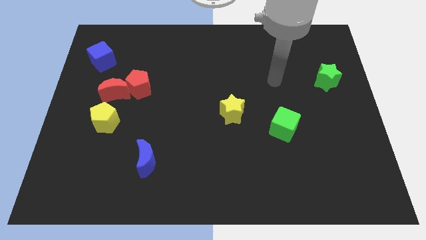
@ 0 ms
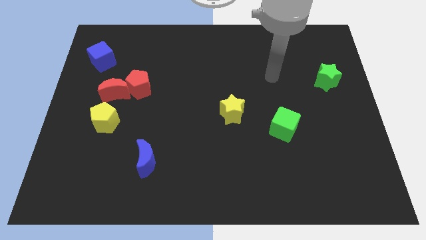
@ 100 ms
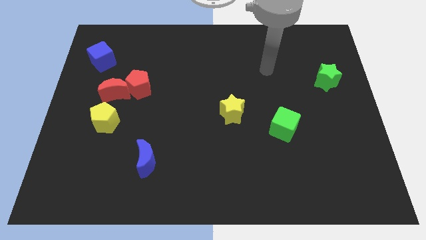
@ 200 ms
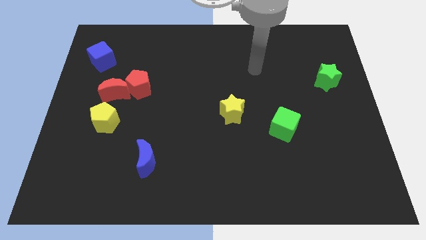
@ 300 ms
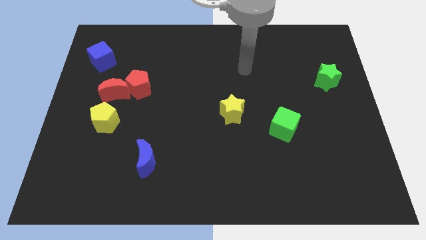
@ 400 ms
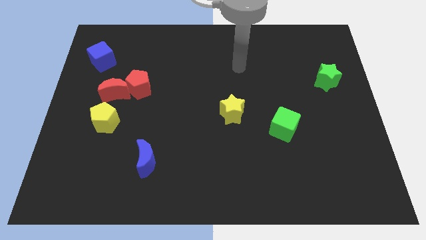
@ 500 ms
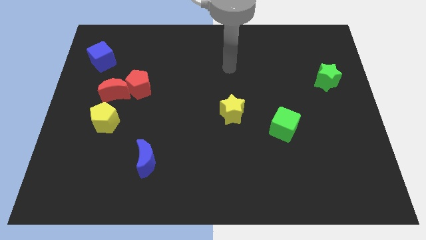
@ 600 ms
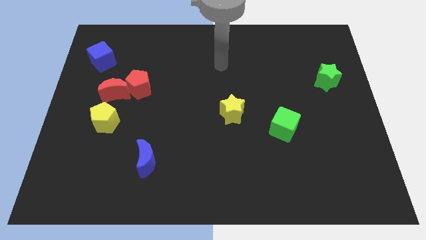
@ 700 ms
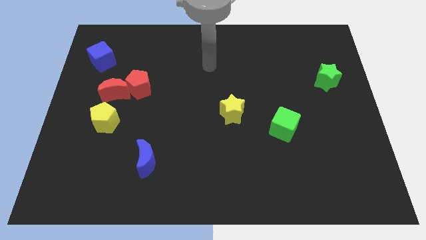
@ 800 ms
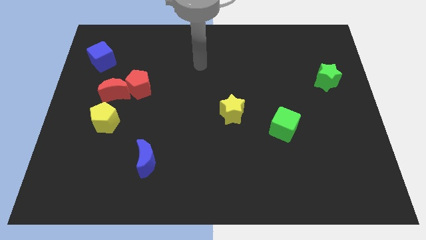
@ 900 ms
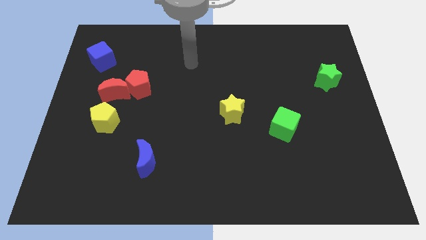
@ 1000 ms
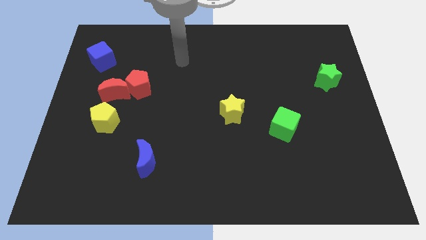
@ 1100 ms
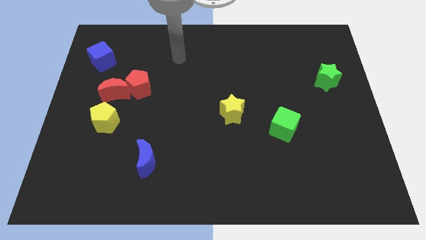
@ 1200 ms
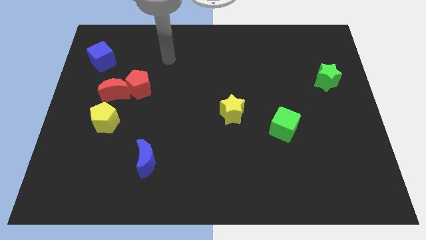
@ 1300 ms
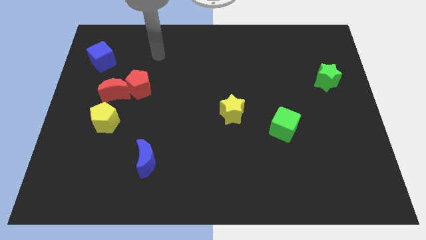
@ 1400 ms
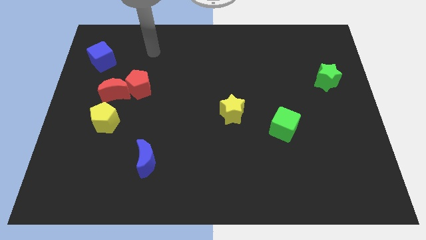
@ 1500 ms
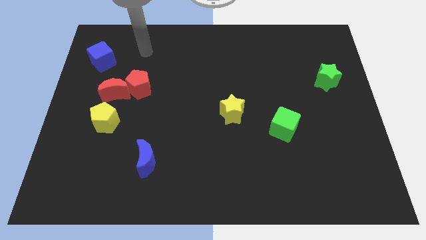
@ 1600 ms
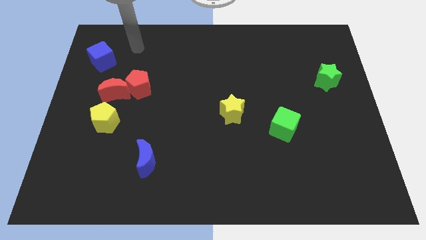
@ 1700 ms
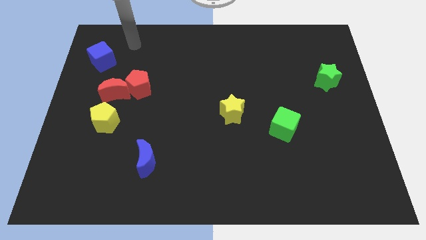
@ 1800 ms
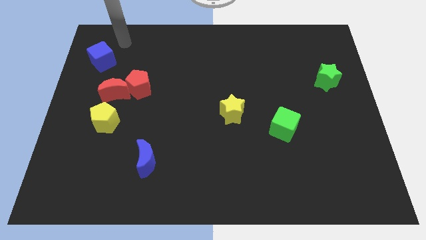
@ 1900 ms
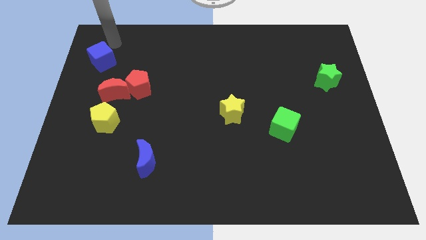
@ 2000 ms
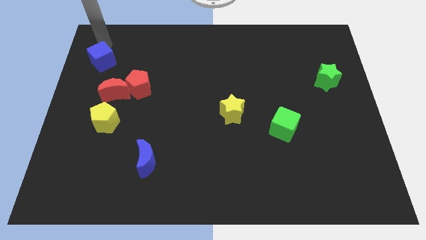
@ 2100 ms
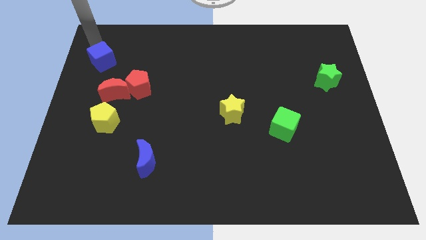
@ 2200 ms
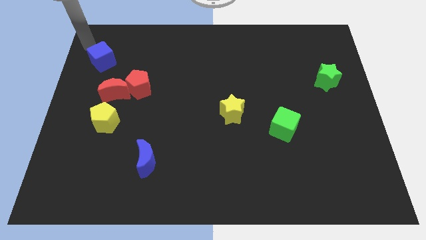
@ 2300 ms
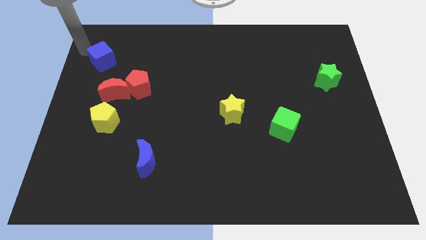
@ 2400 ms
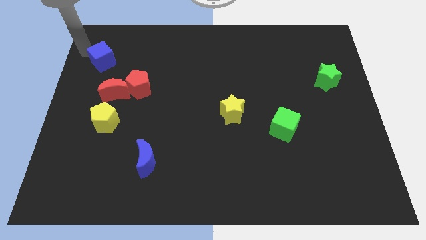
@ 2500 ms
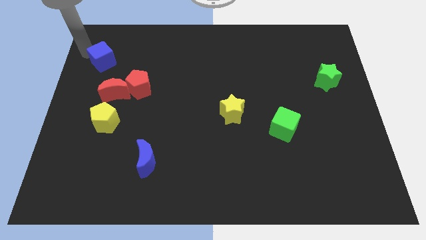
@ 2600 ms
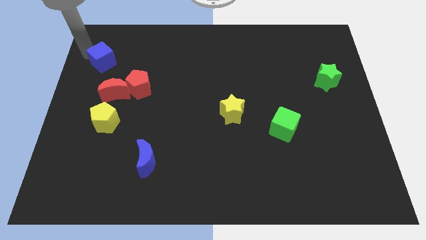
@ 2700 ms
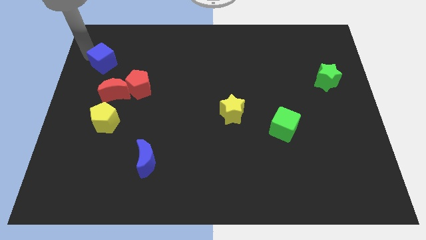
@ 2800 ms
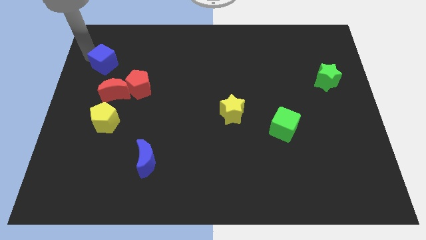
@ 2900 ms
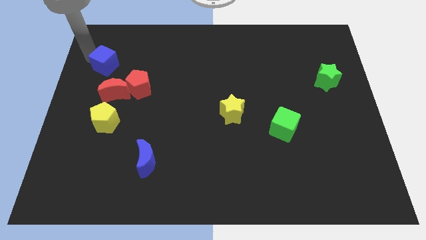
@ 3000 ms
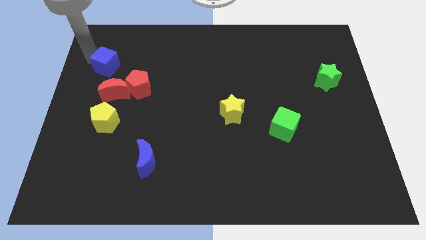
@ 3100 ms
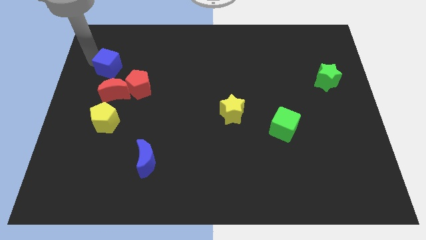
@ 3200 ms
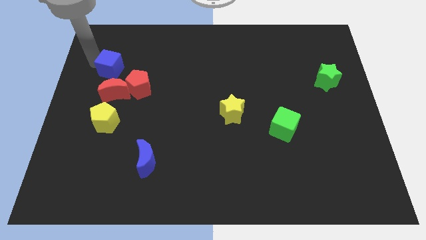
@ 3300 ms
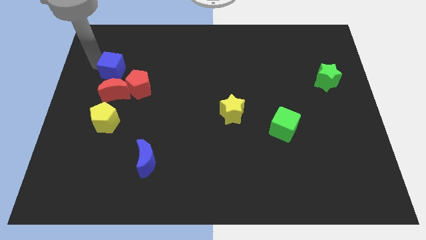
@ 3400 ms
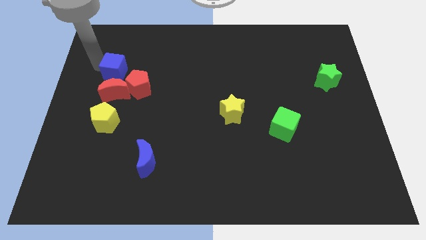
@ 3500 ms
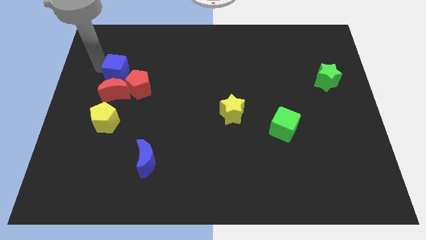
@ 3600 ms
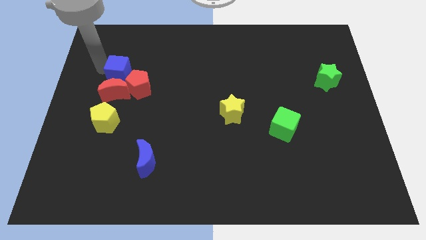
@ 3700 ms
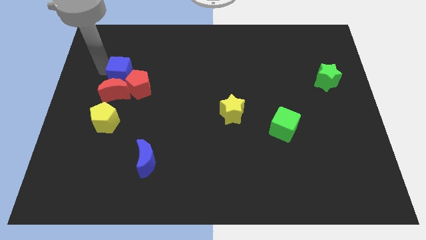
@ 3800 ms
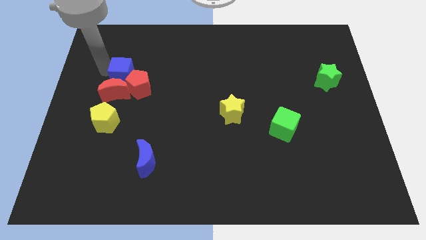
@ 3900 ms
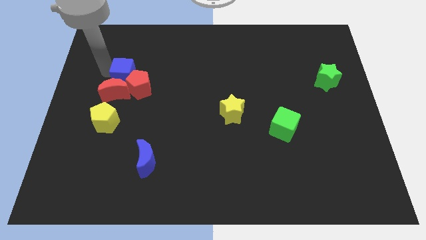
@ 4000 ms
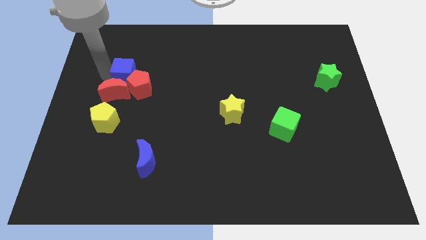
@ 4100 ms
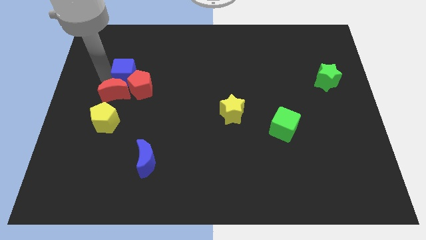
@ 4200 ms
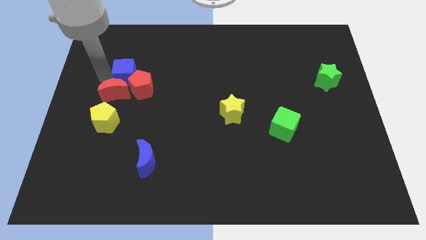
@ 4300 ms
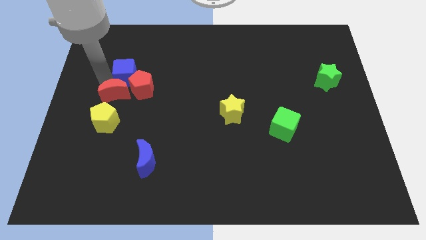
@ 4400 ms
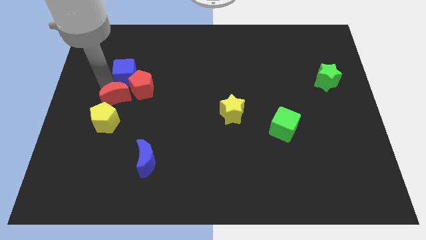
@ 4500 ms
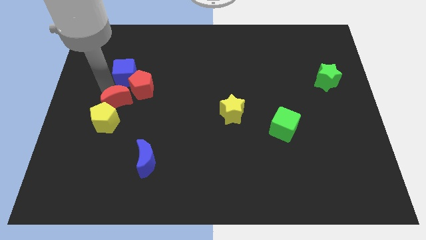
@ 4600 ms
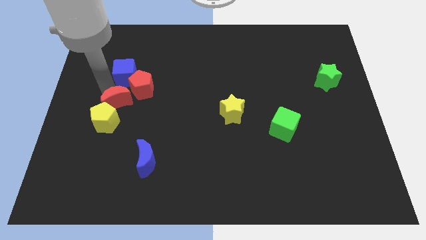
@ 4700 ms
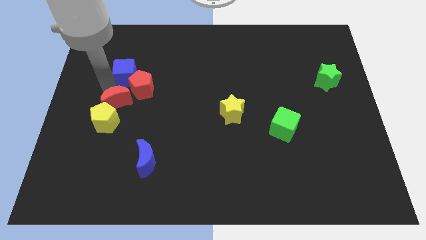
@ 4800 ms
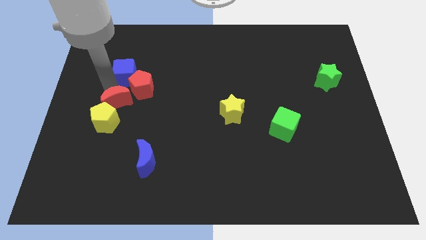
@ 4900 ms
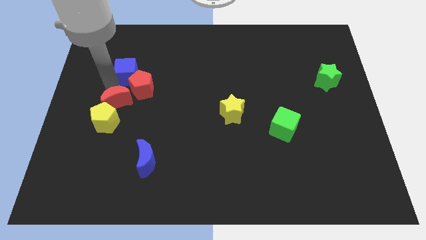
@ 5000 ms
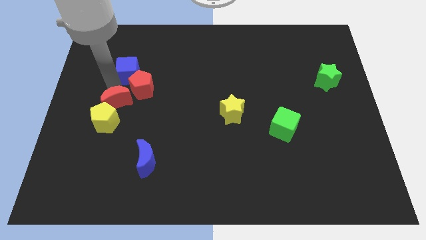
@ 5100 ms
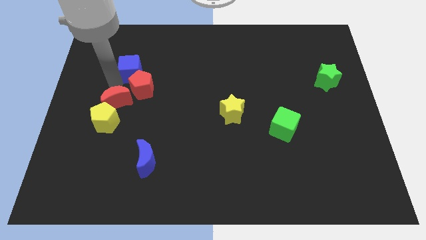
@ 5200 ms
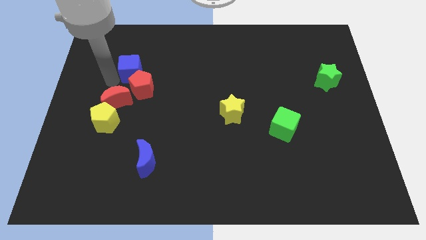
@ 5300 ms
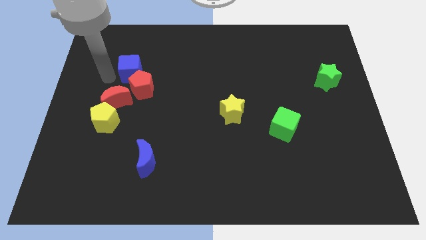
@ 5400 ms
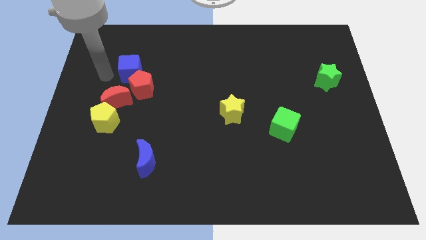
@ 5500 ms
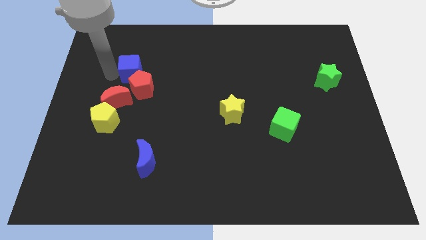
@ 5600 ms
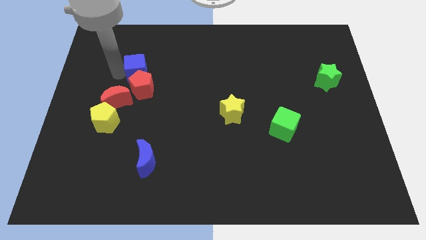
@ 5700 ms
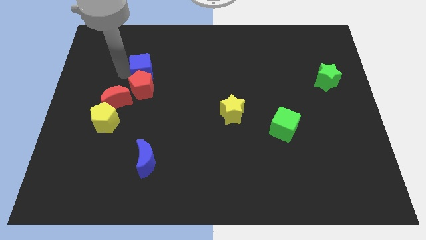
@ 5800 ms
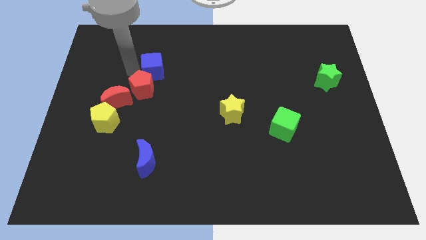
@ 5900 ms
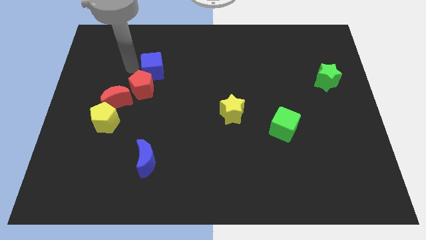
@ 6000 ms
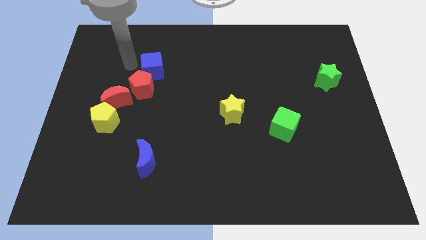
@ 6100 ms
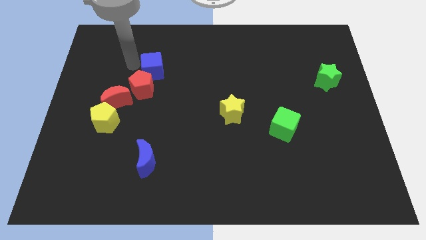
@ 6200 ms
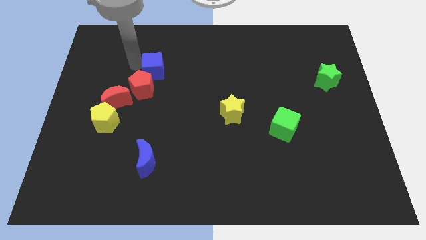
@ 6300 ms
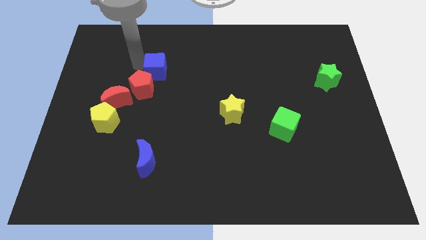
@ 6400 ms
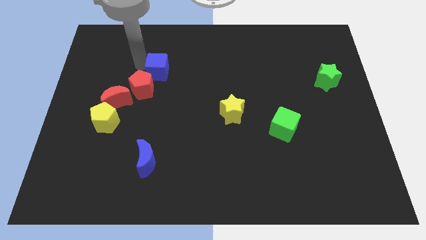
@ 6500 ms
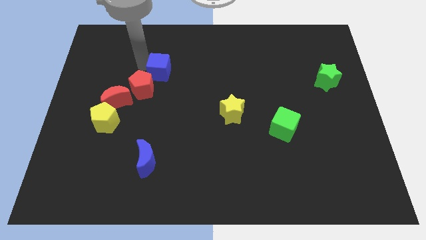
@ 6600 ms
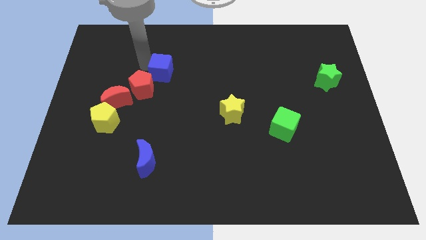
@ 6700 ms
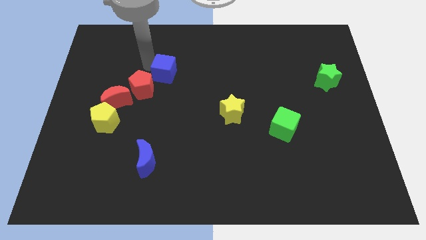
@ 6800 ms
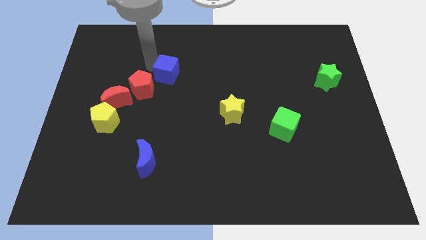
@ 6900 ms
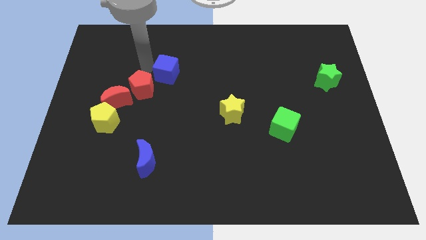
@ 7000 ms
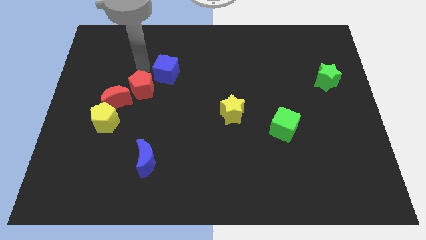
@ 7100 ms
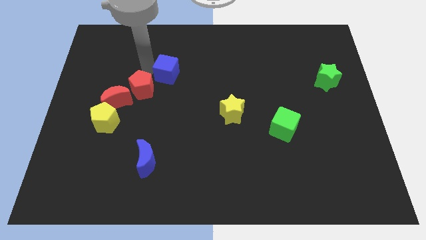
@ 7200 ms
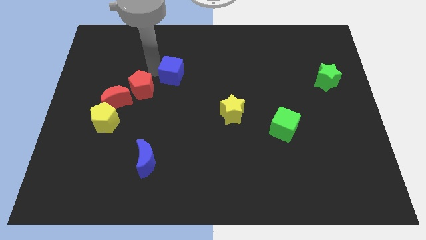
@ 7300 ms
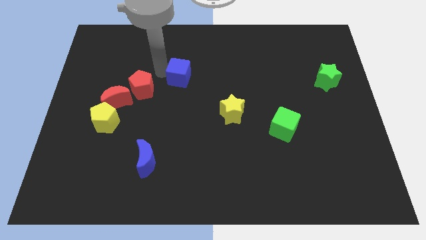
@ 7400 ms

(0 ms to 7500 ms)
slide the blue cube to the center of the board
